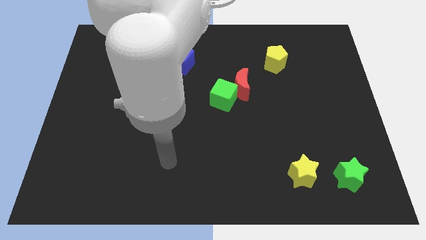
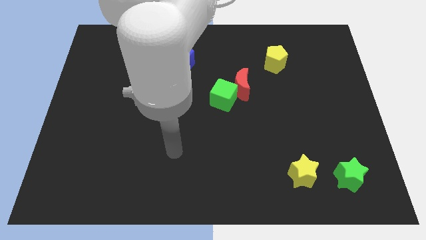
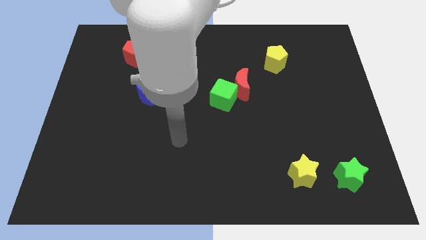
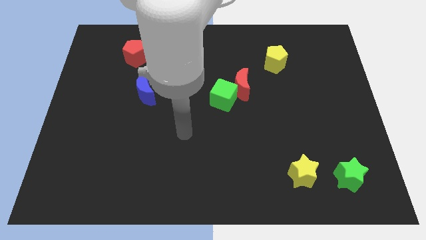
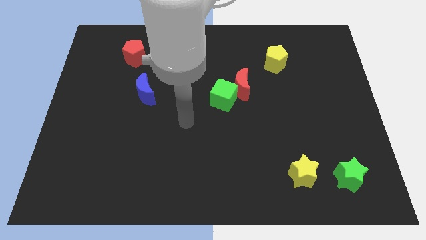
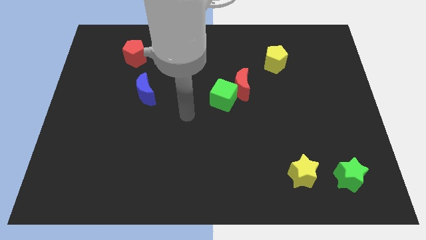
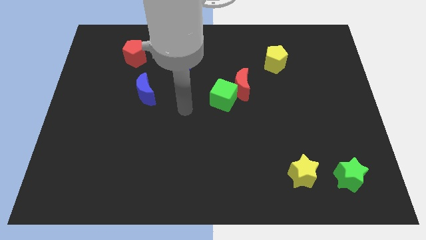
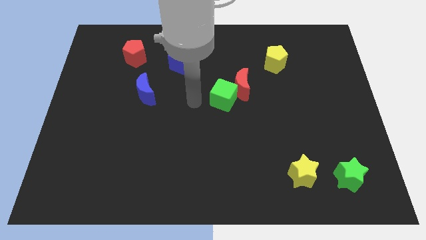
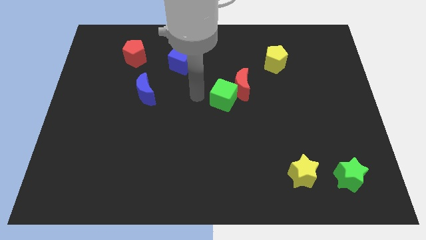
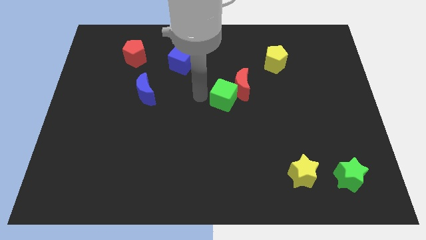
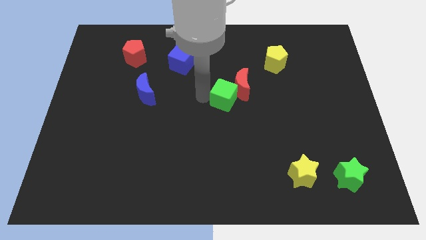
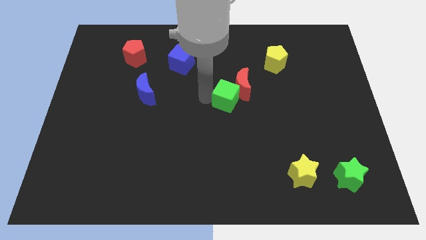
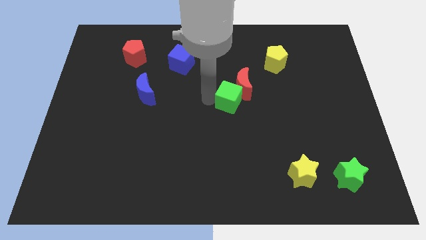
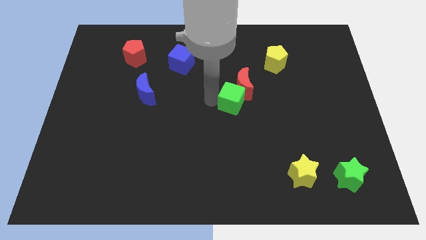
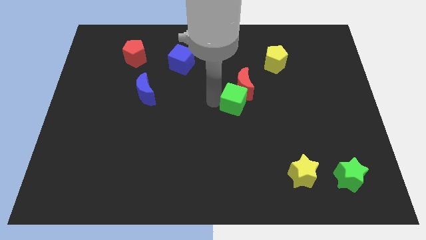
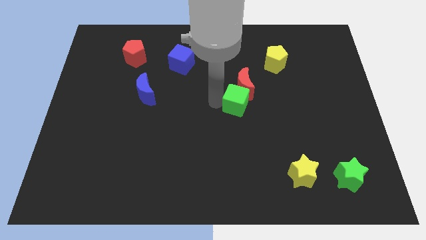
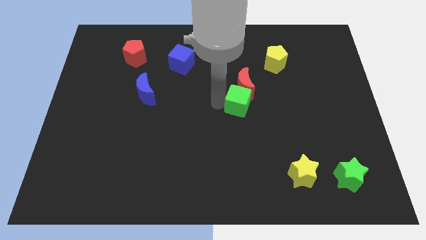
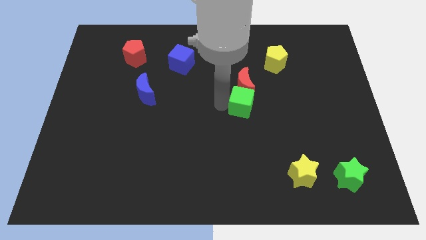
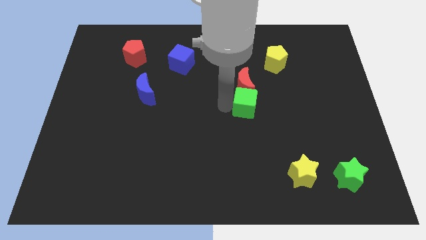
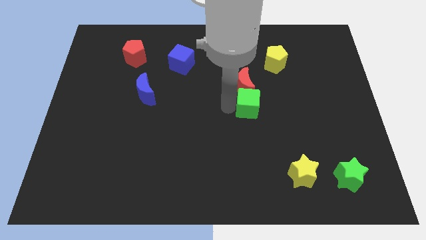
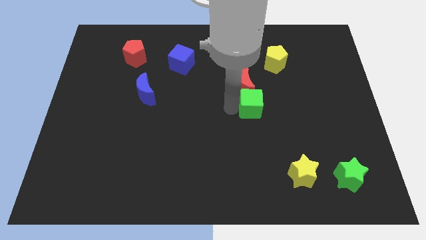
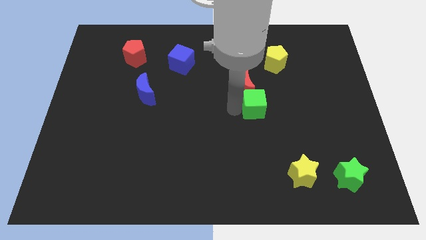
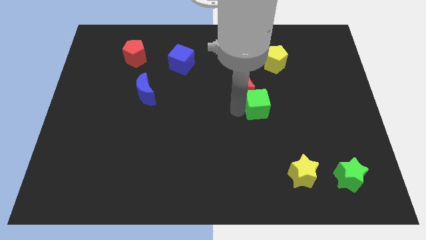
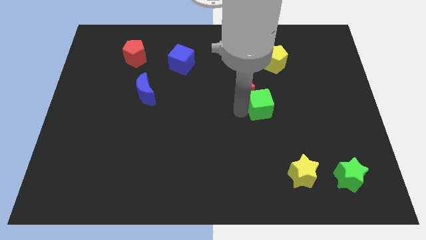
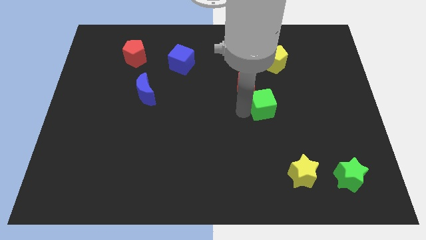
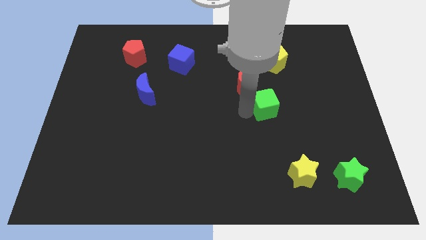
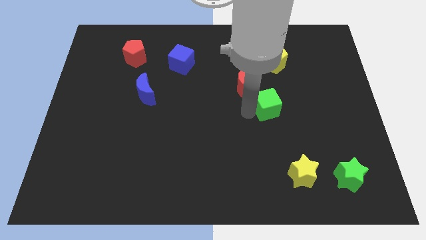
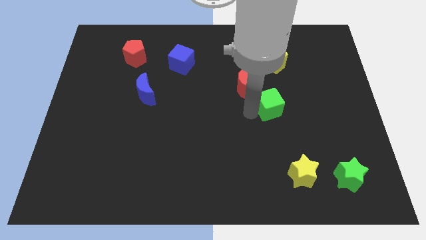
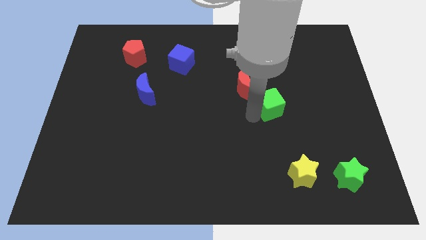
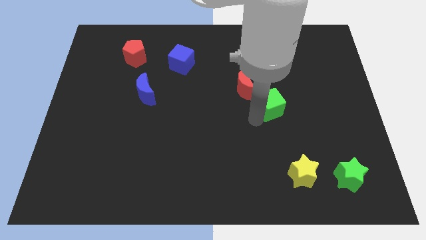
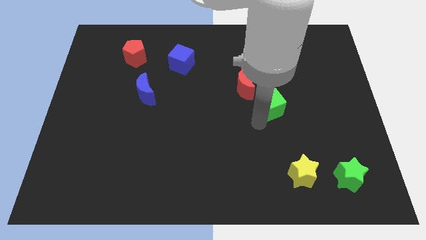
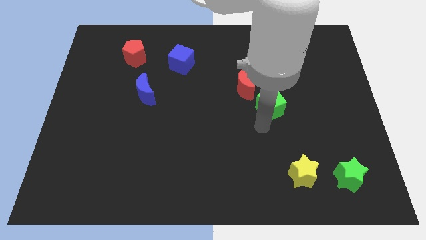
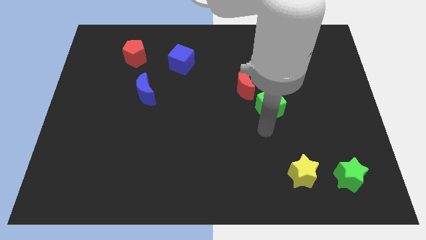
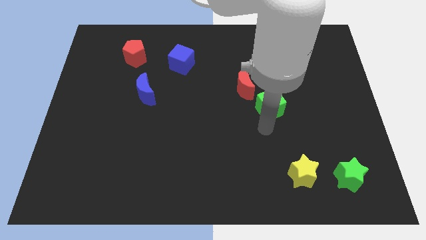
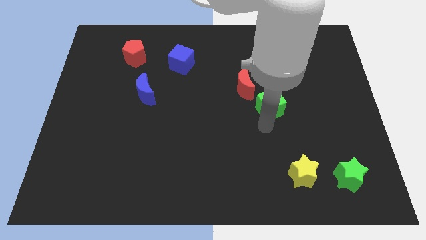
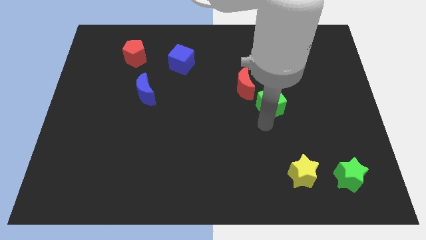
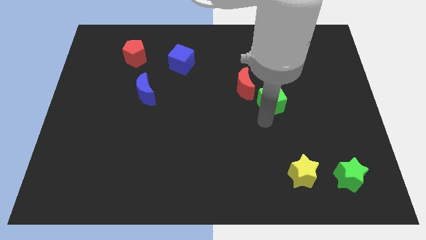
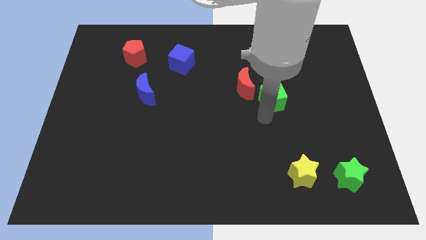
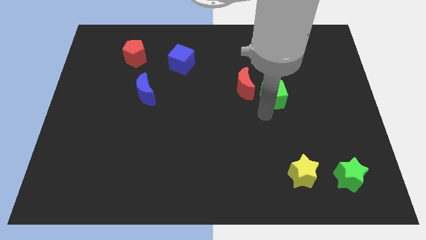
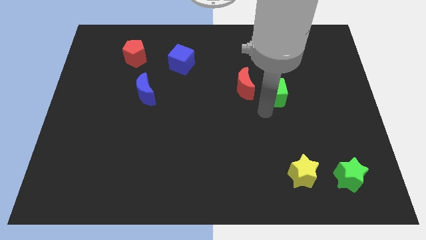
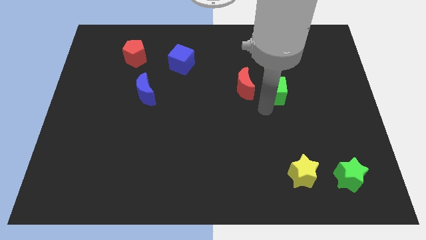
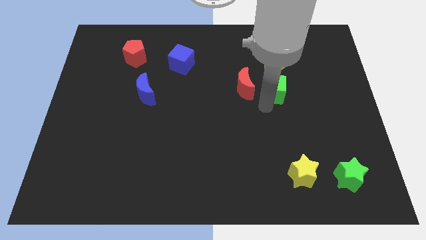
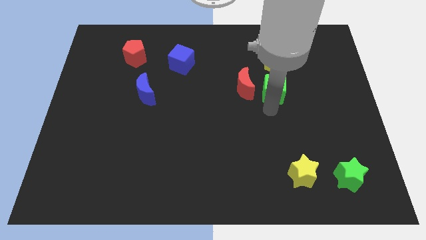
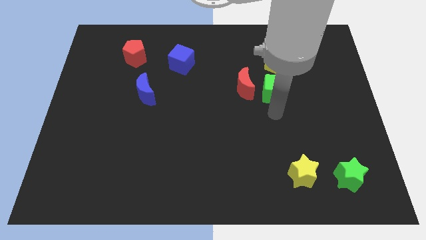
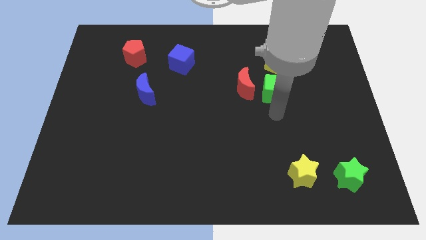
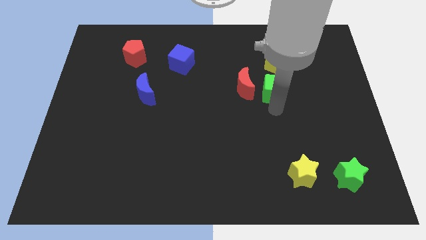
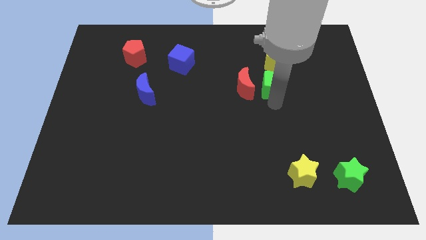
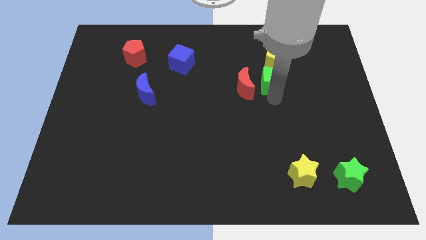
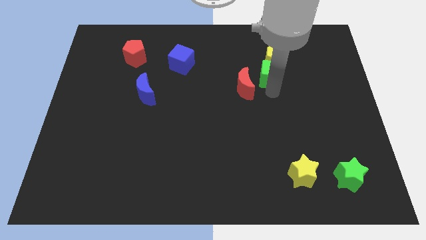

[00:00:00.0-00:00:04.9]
slide the green cube to the yellow pentagon

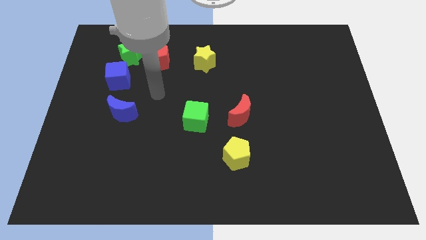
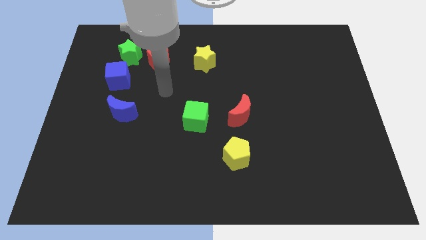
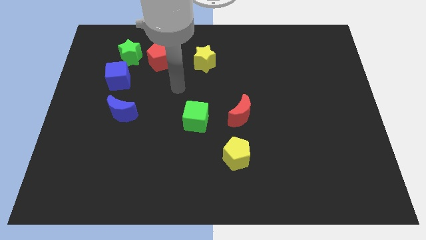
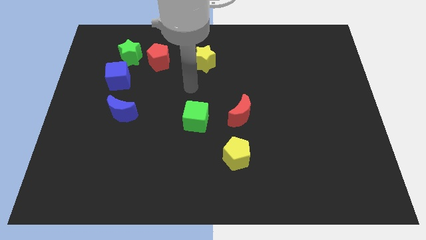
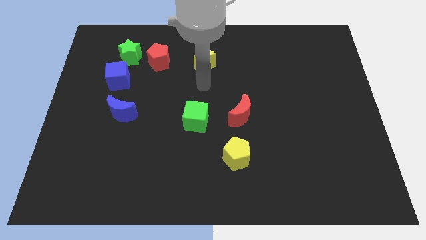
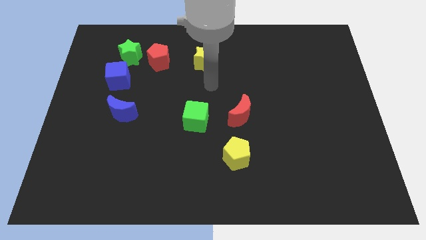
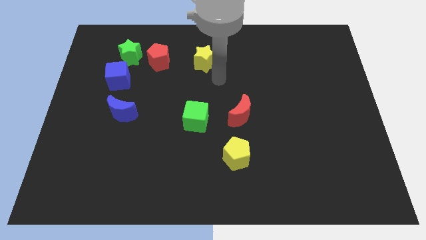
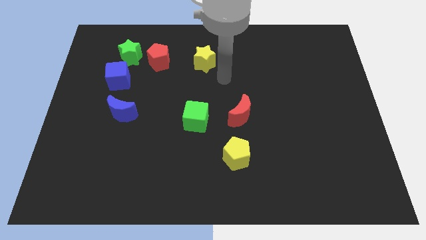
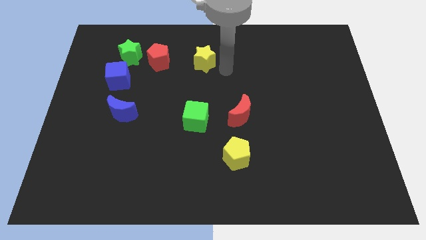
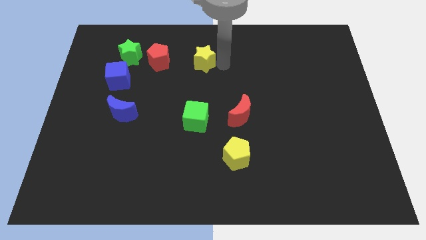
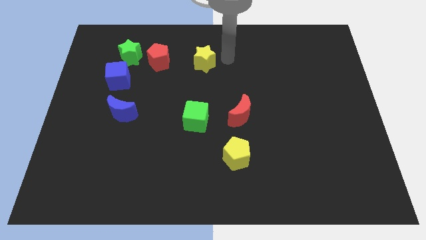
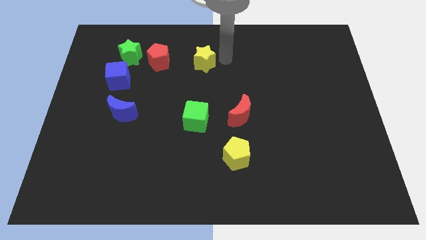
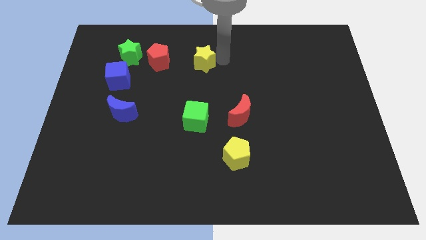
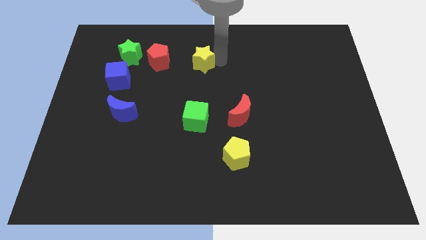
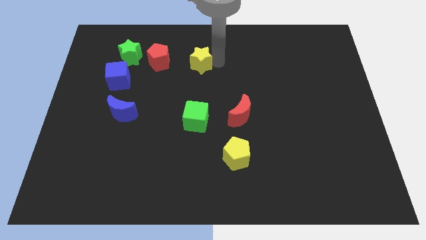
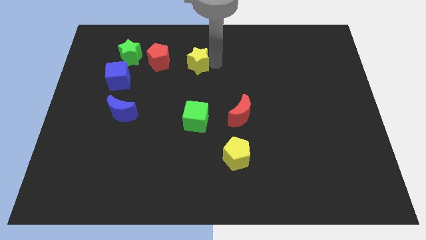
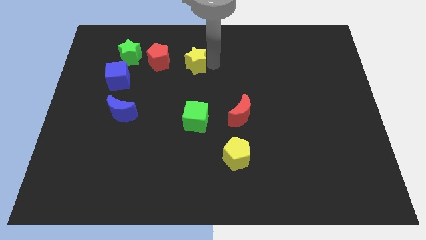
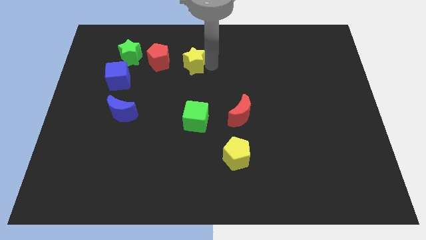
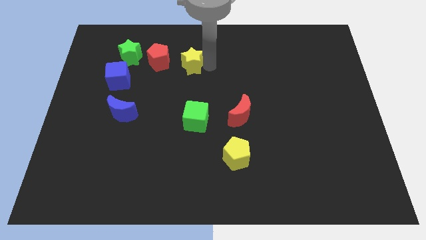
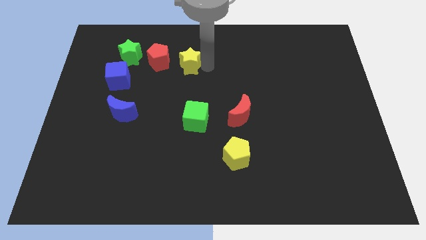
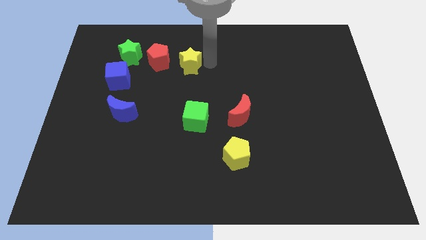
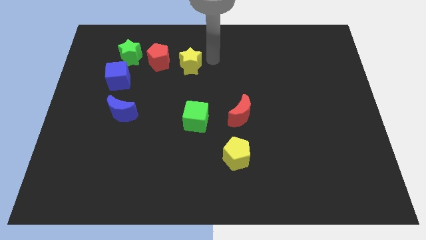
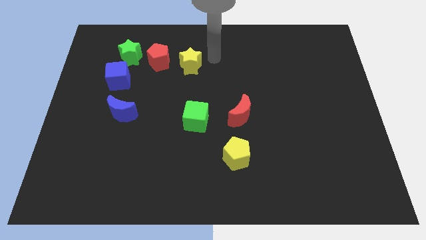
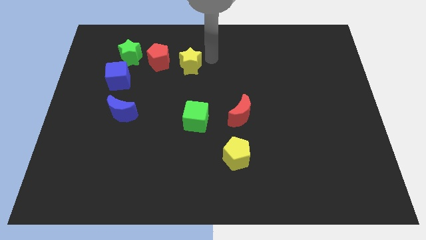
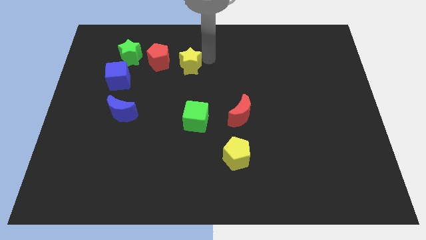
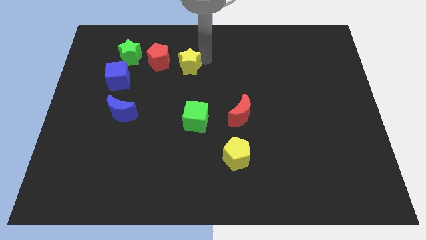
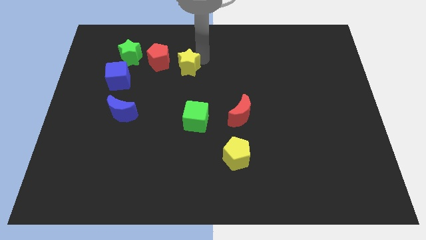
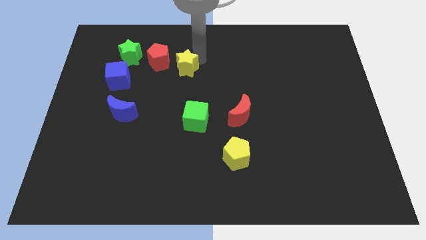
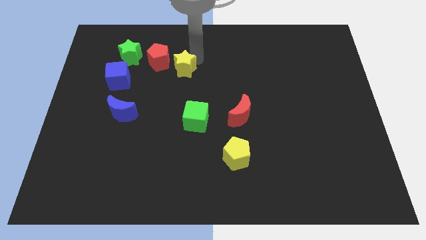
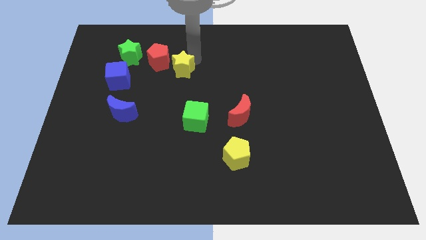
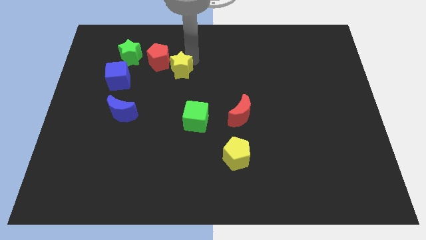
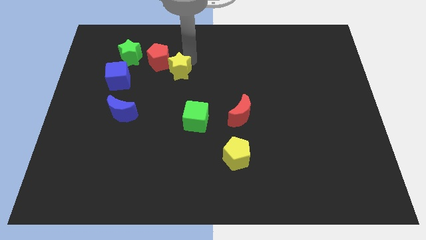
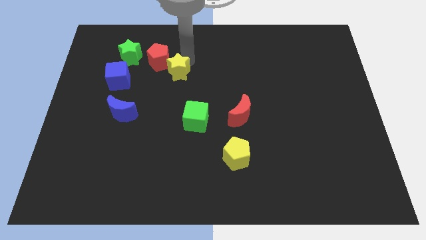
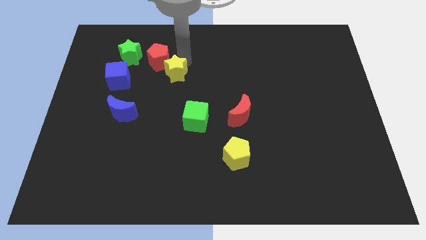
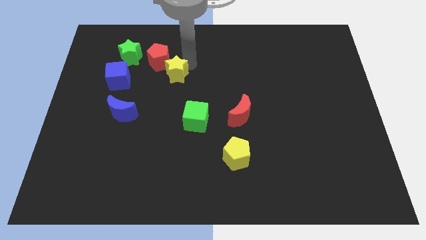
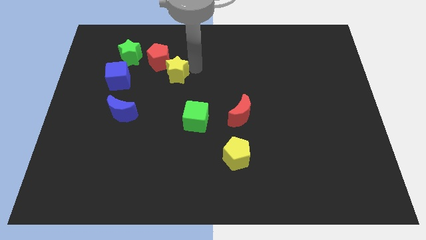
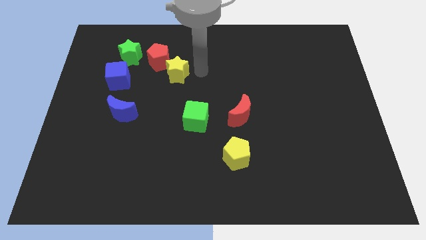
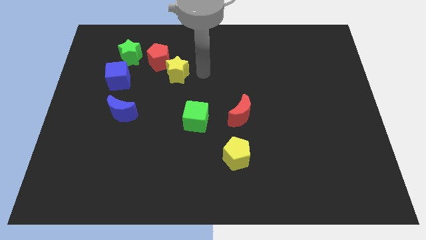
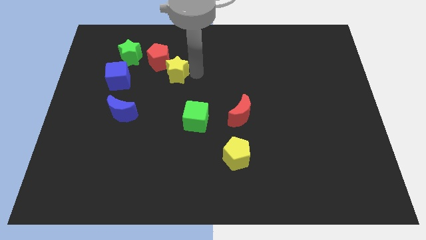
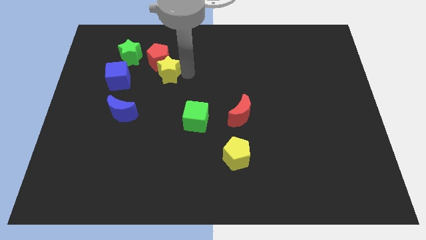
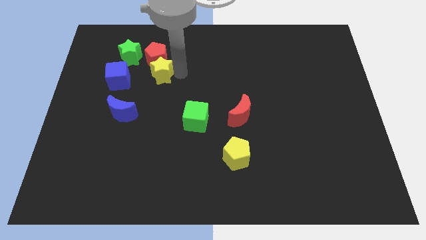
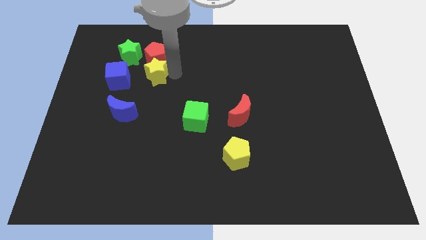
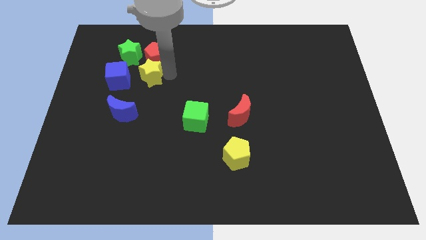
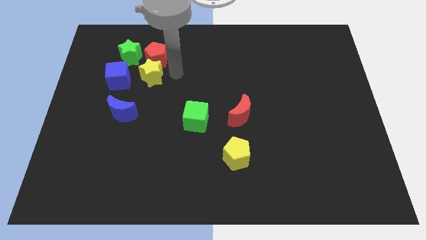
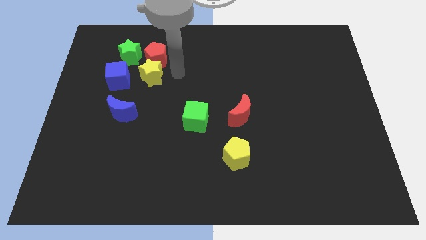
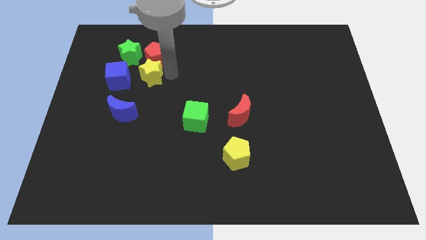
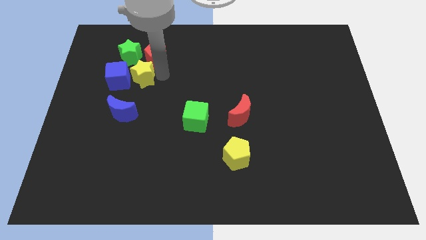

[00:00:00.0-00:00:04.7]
slide the yellow star next to the blue cube
